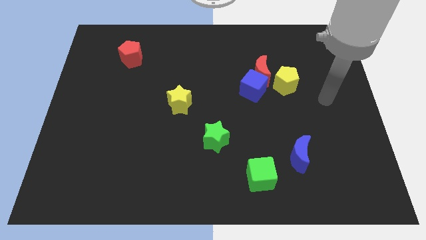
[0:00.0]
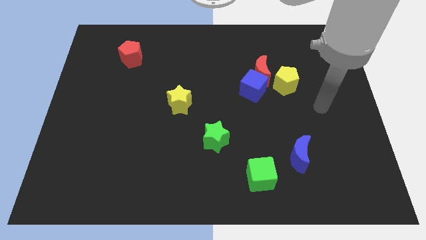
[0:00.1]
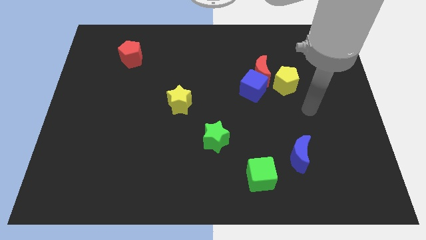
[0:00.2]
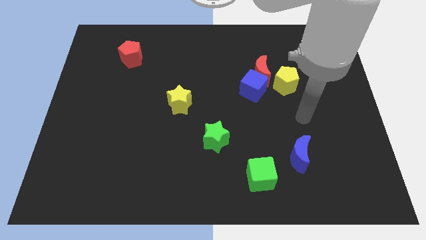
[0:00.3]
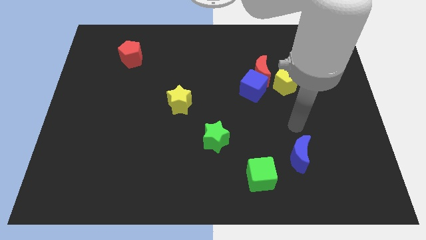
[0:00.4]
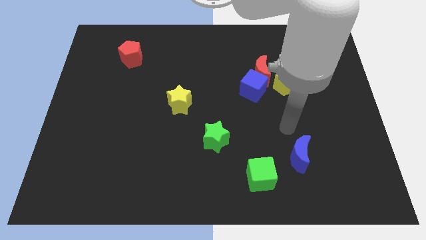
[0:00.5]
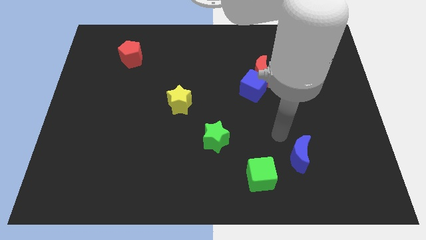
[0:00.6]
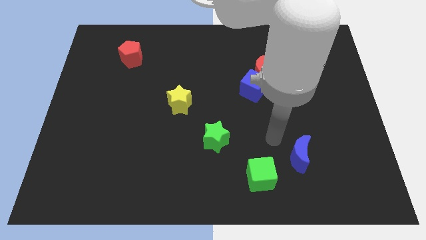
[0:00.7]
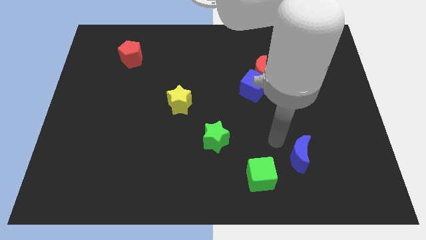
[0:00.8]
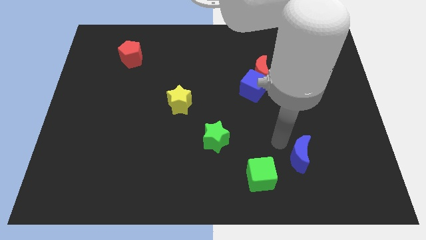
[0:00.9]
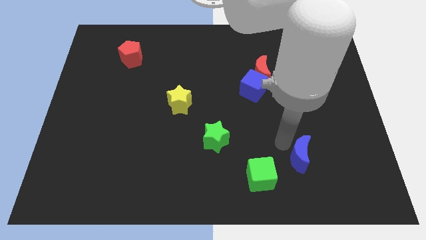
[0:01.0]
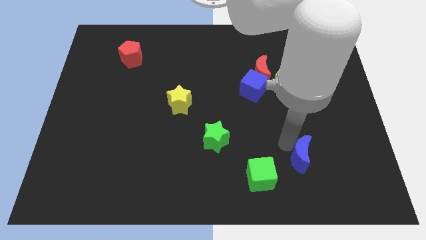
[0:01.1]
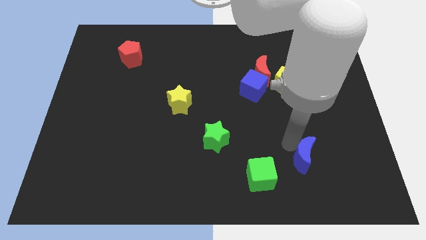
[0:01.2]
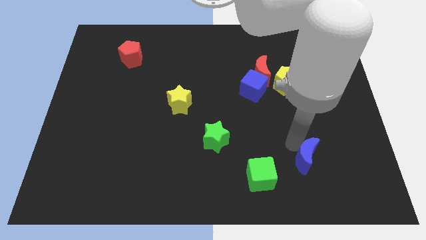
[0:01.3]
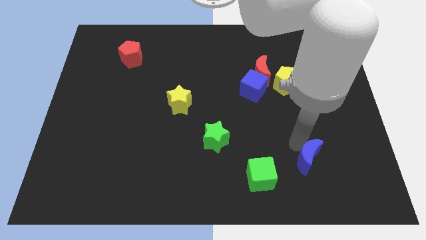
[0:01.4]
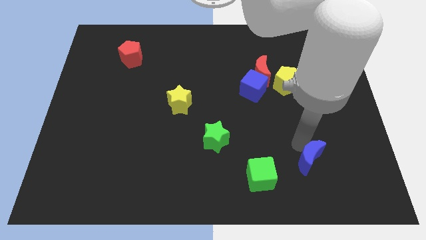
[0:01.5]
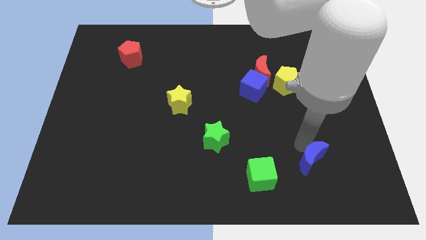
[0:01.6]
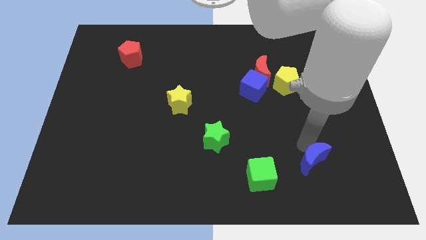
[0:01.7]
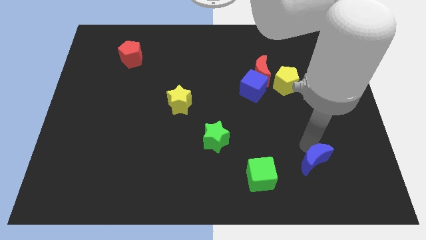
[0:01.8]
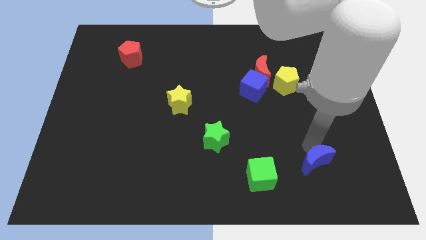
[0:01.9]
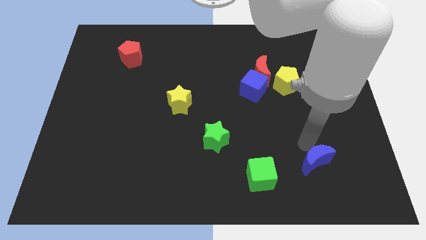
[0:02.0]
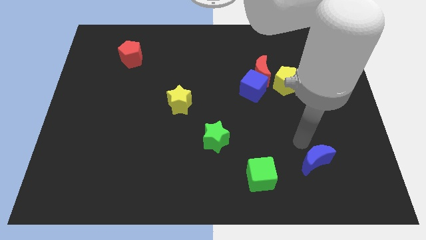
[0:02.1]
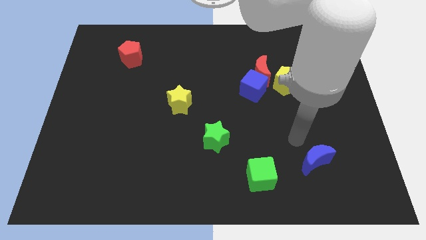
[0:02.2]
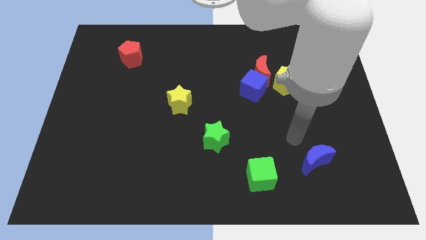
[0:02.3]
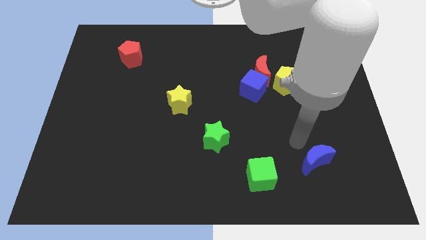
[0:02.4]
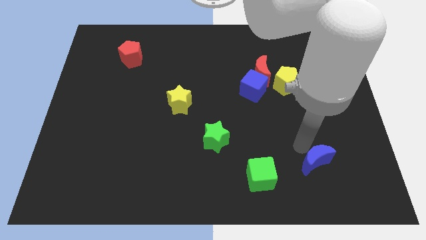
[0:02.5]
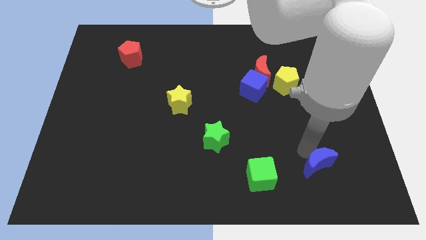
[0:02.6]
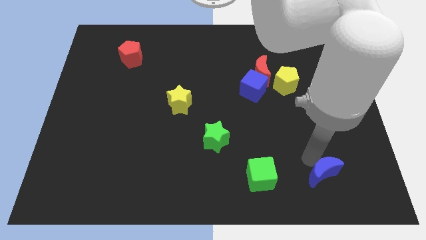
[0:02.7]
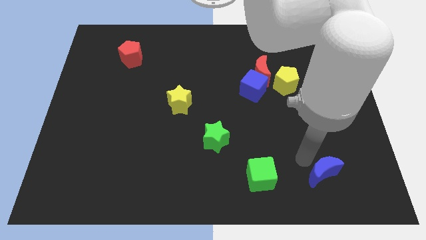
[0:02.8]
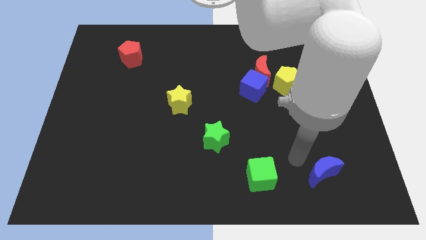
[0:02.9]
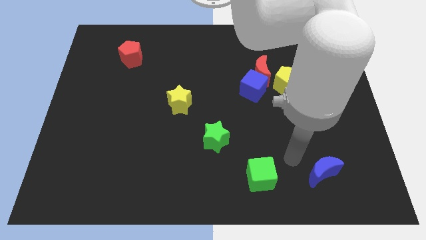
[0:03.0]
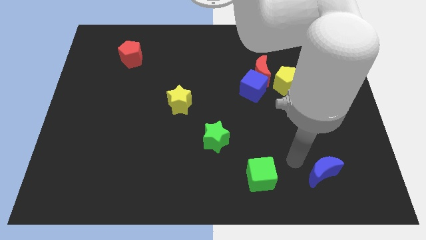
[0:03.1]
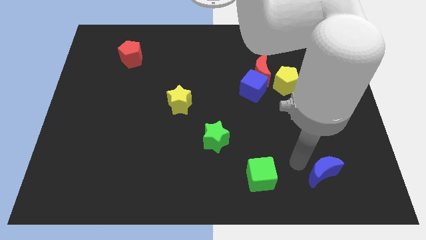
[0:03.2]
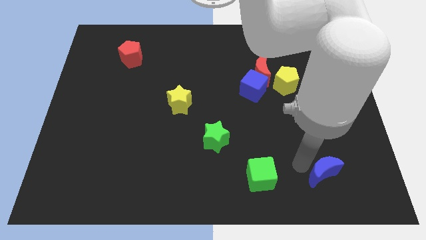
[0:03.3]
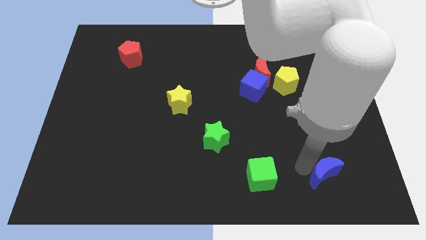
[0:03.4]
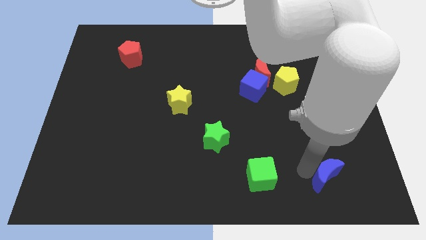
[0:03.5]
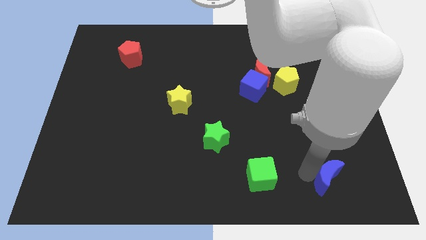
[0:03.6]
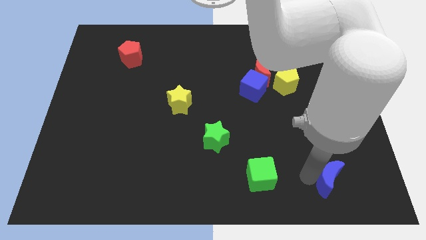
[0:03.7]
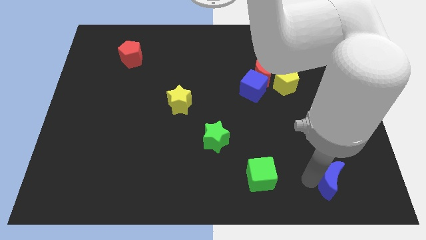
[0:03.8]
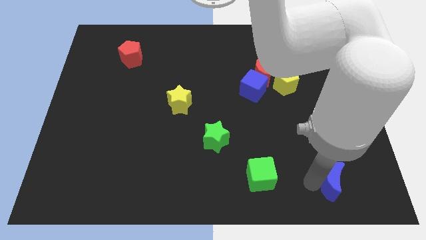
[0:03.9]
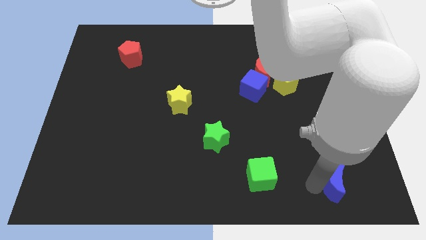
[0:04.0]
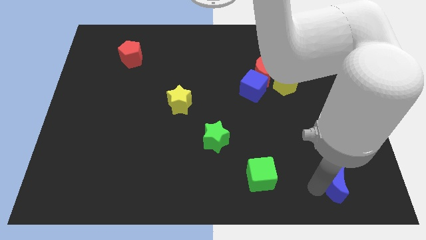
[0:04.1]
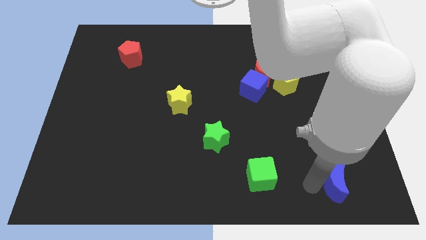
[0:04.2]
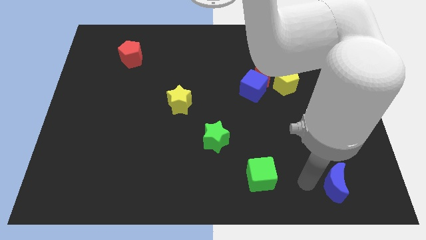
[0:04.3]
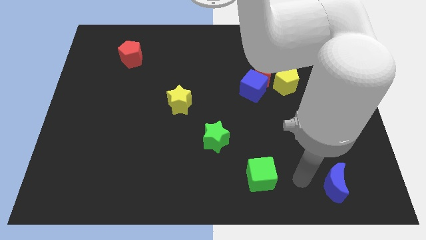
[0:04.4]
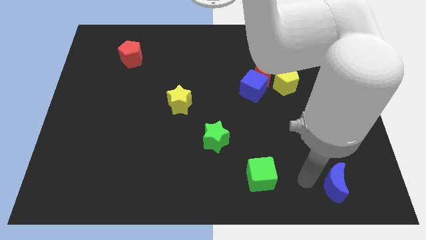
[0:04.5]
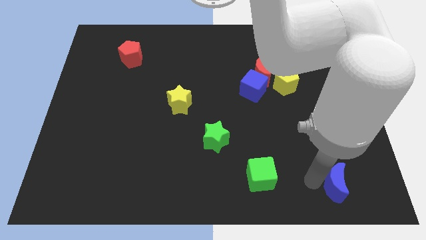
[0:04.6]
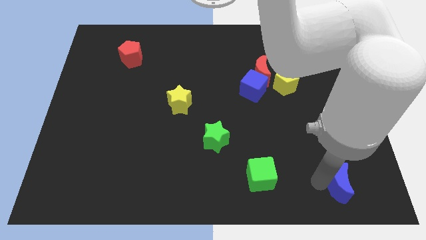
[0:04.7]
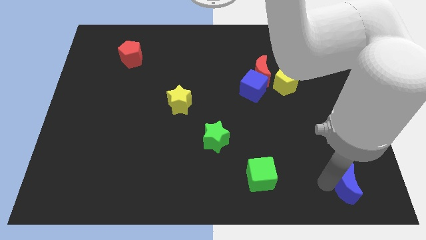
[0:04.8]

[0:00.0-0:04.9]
move the blue moon to the lower right corner

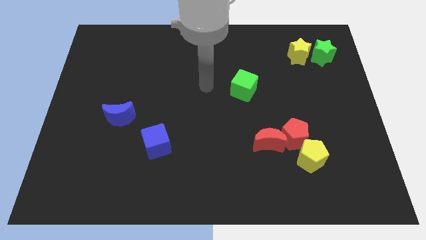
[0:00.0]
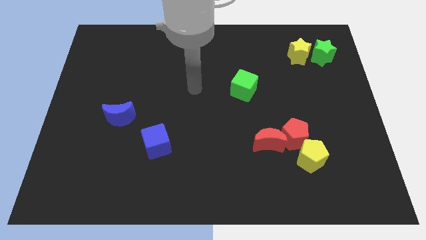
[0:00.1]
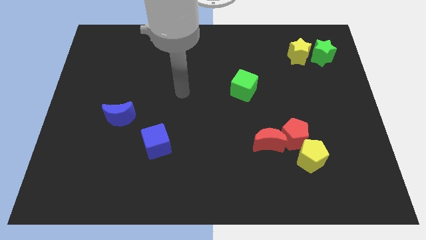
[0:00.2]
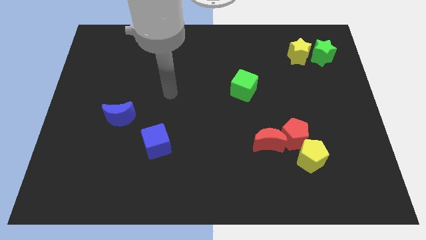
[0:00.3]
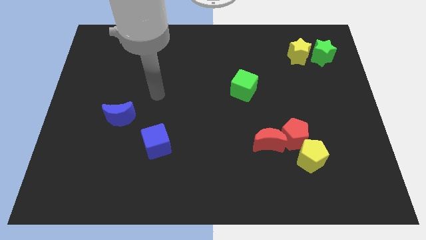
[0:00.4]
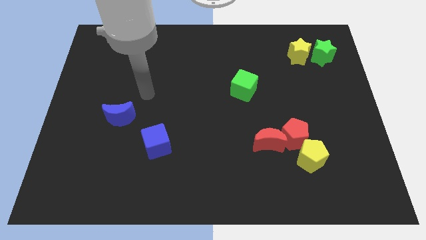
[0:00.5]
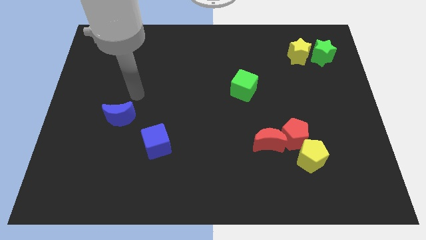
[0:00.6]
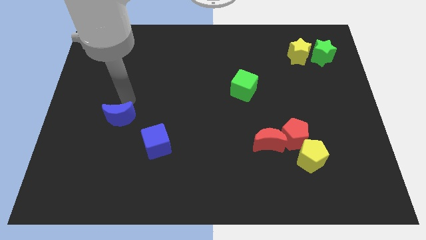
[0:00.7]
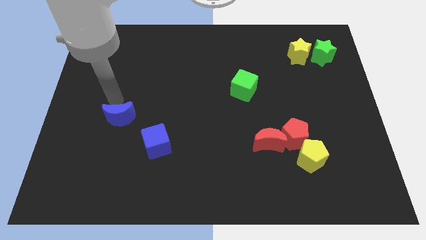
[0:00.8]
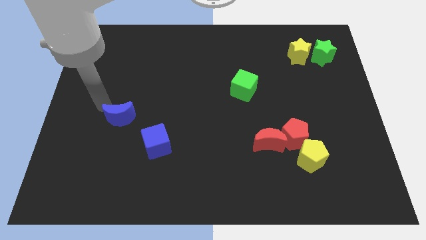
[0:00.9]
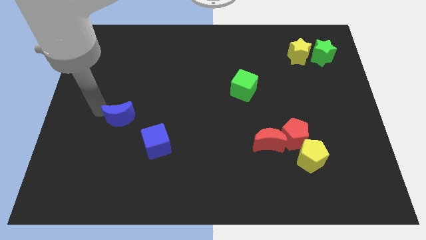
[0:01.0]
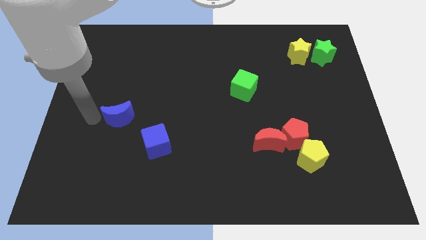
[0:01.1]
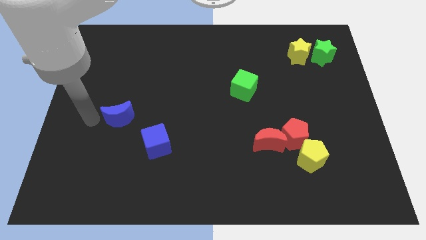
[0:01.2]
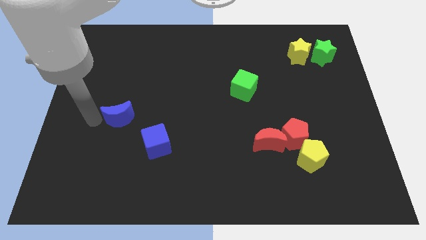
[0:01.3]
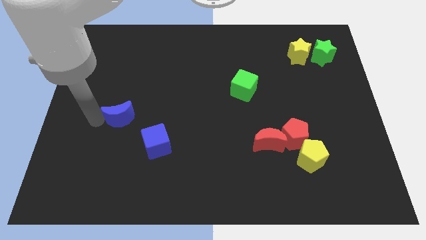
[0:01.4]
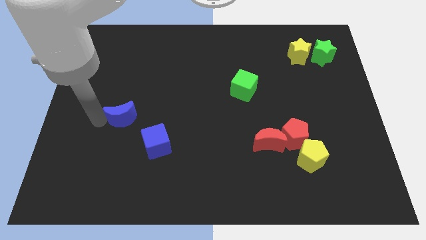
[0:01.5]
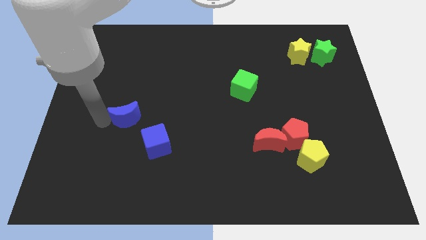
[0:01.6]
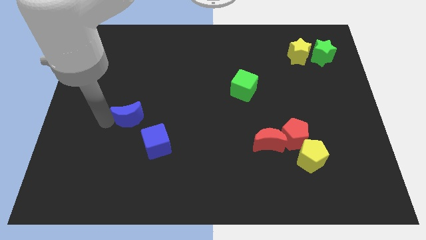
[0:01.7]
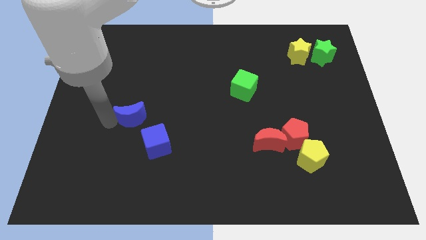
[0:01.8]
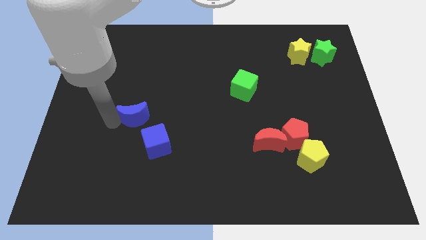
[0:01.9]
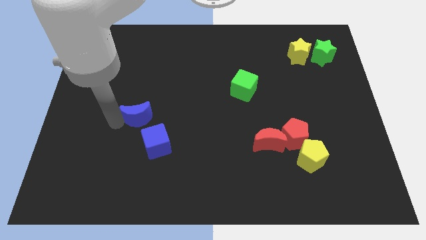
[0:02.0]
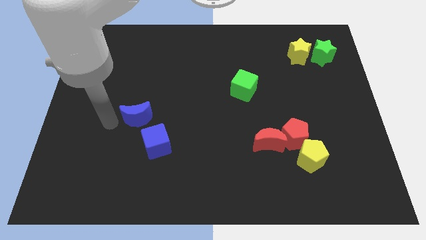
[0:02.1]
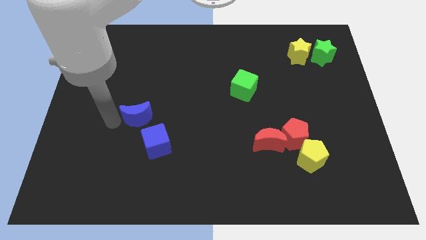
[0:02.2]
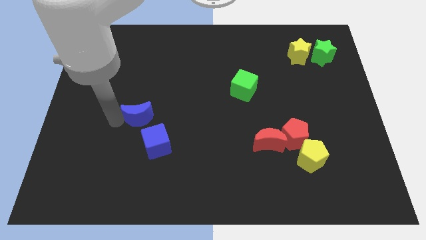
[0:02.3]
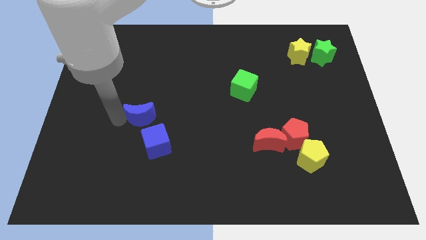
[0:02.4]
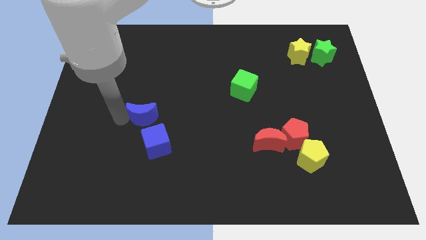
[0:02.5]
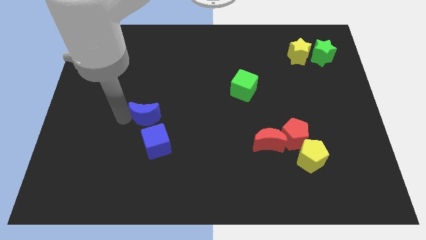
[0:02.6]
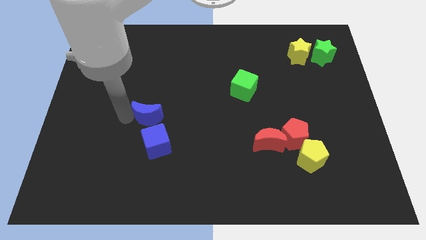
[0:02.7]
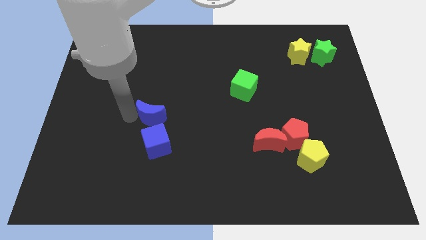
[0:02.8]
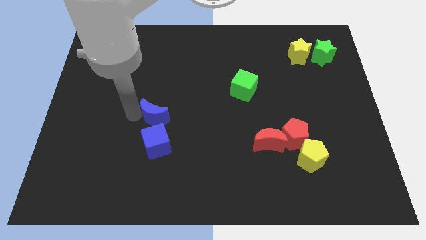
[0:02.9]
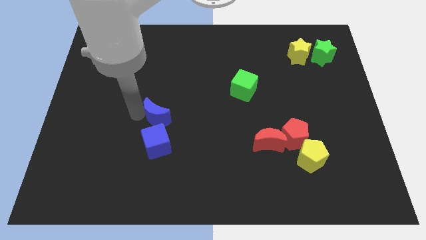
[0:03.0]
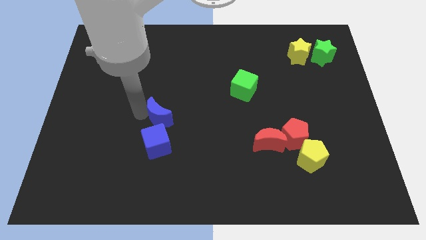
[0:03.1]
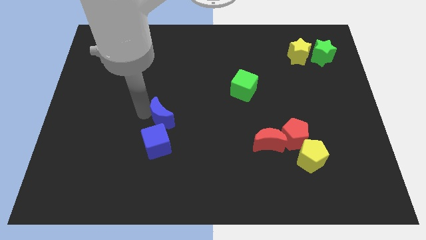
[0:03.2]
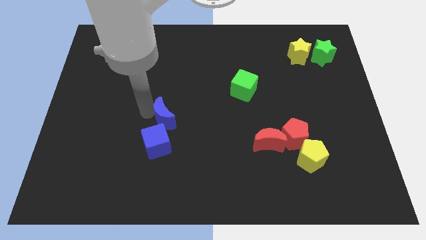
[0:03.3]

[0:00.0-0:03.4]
move the blue moon to the middle
